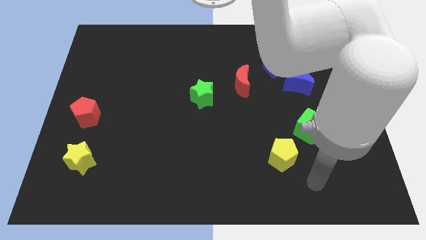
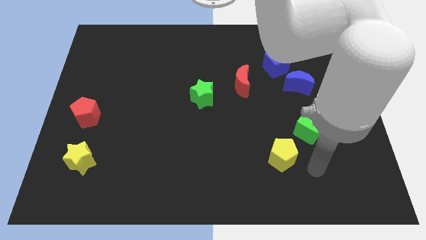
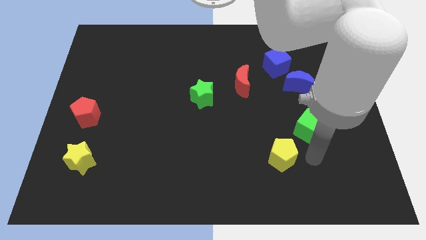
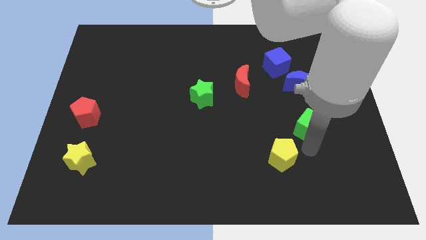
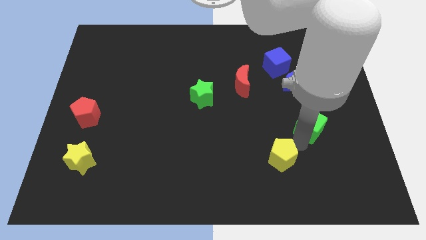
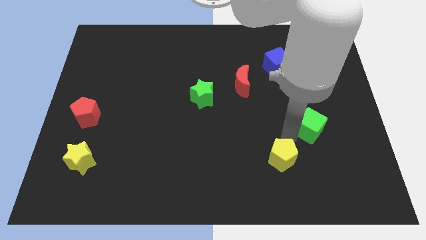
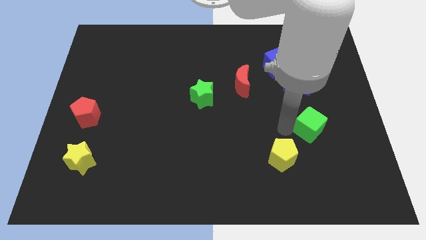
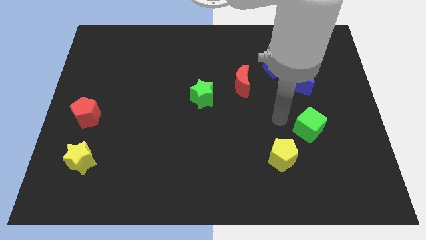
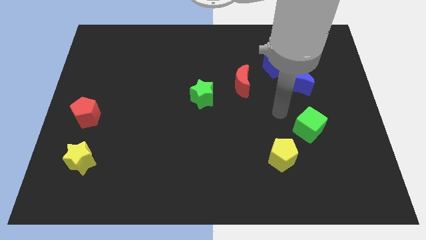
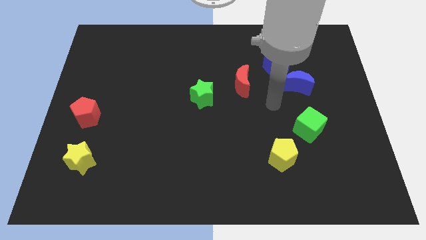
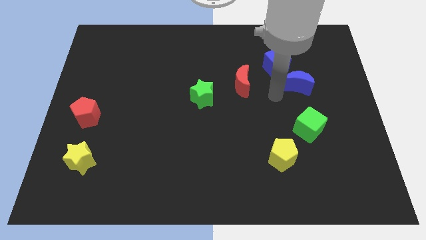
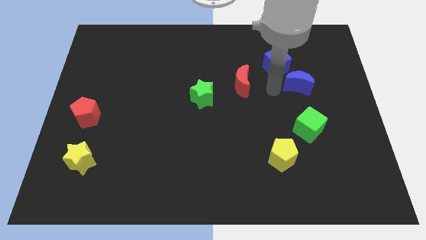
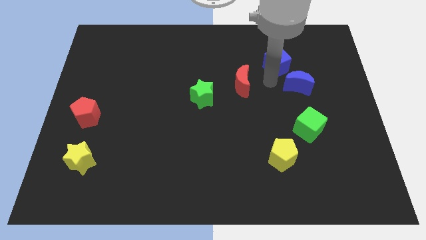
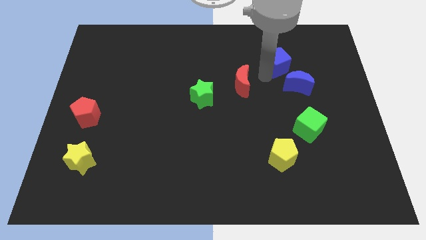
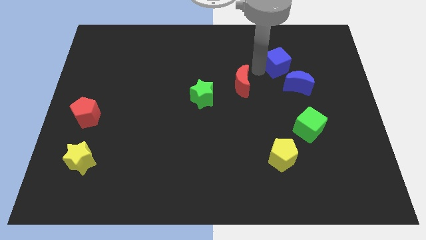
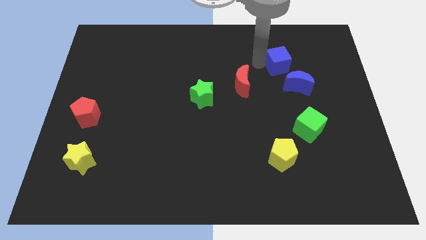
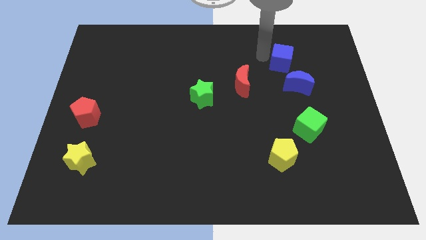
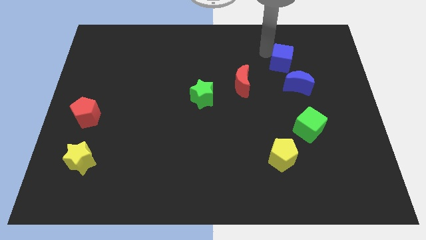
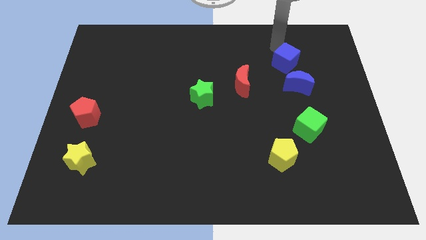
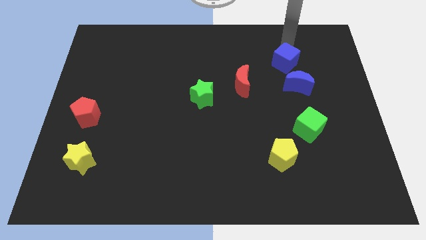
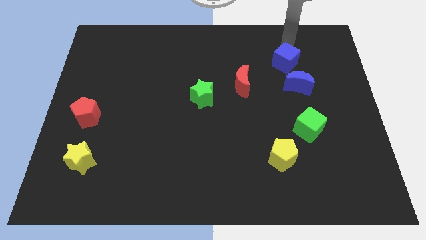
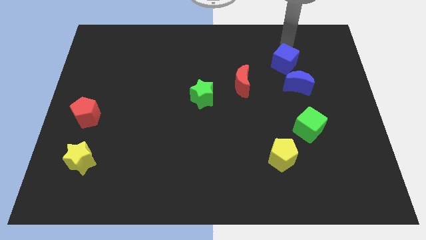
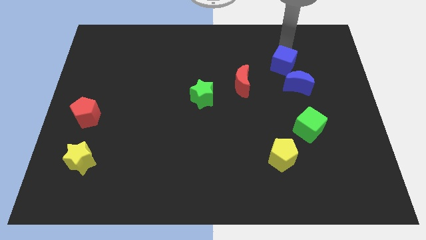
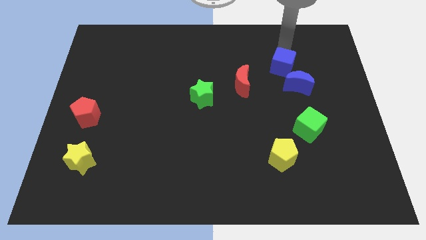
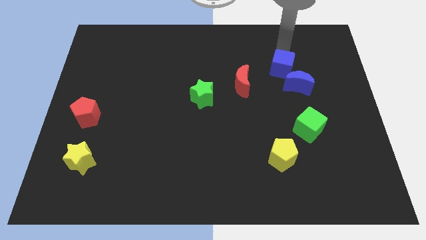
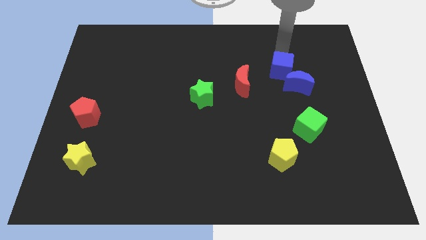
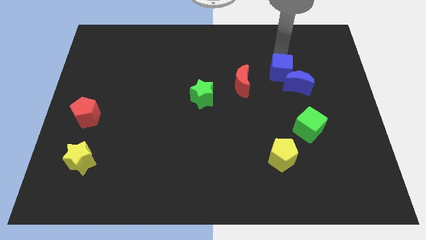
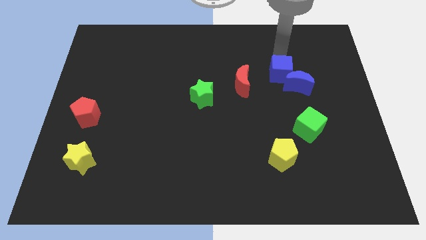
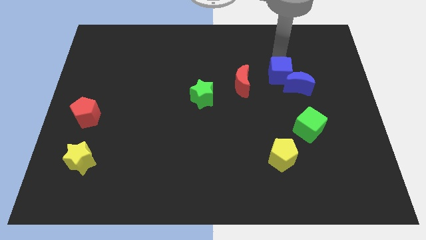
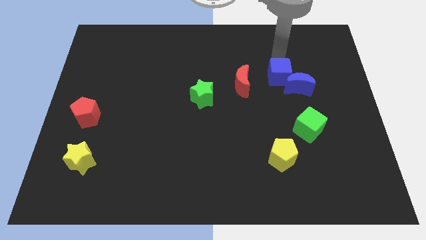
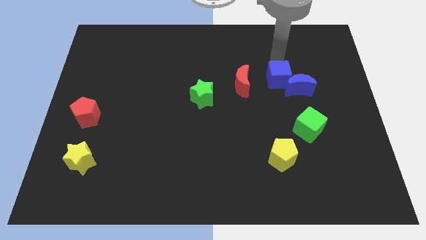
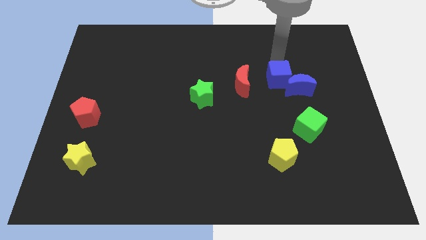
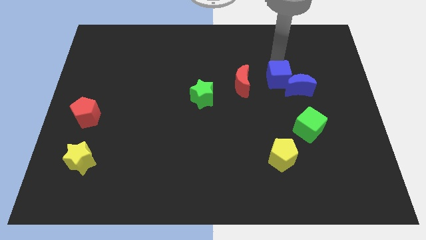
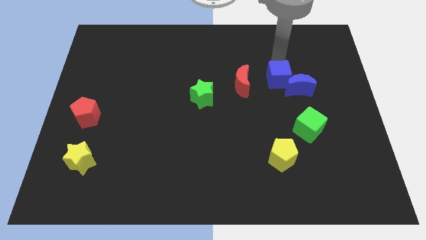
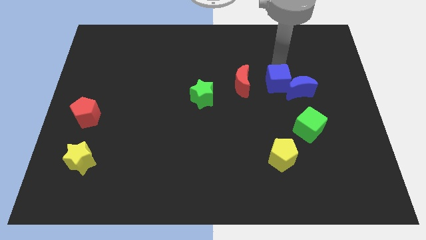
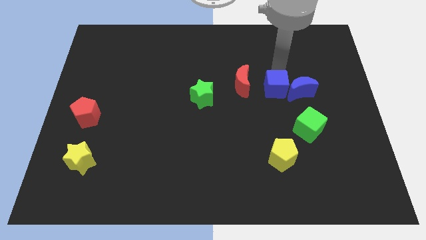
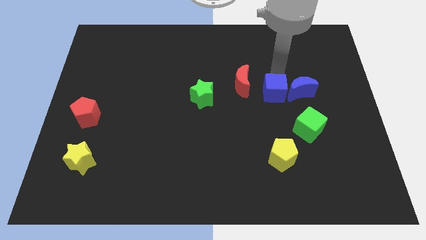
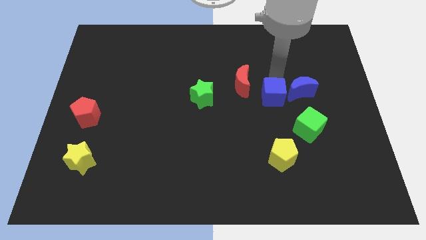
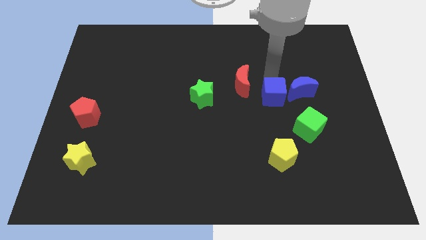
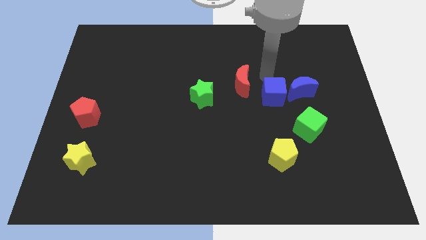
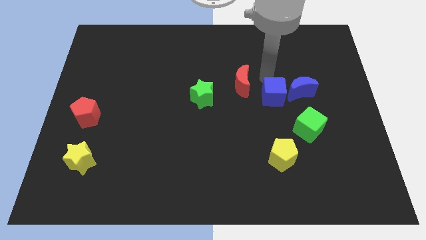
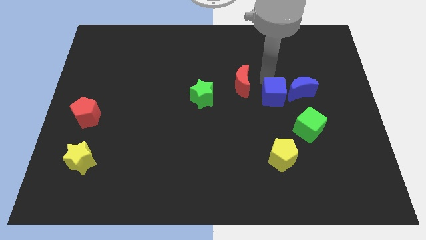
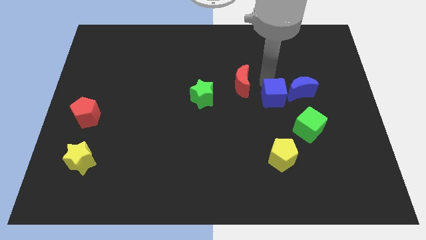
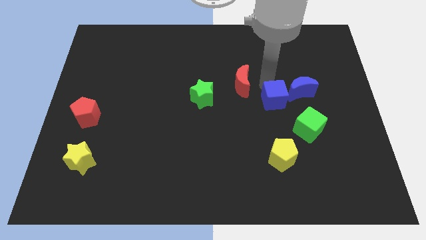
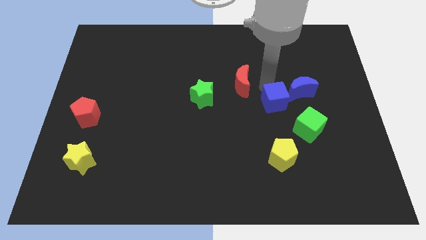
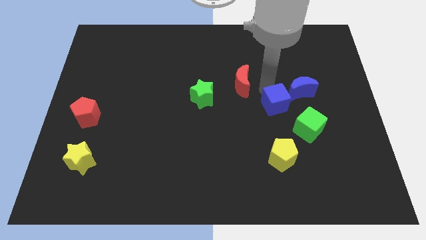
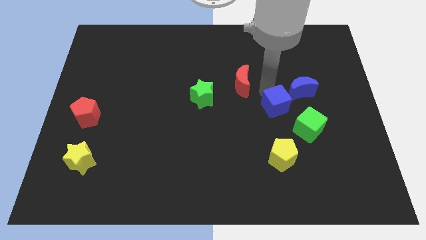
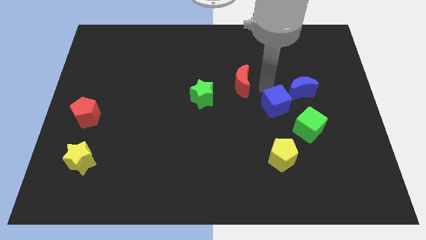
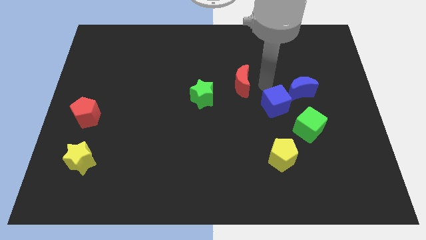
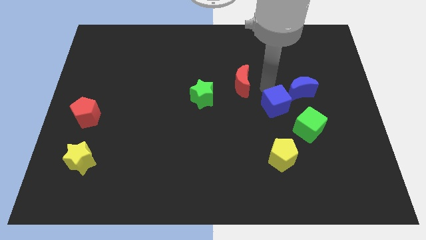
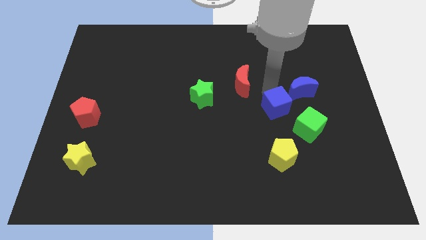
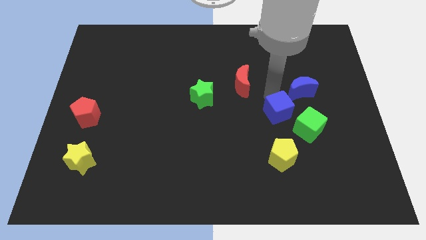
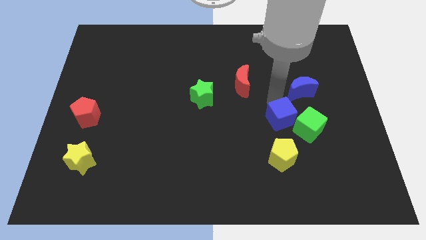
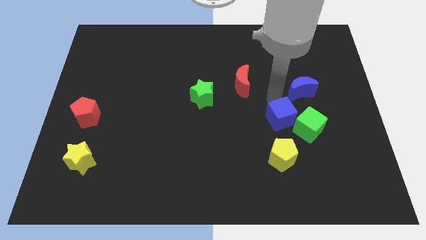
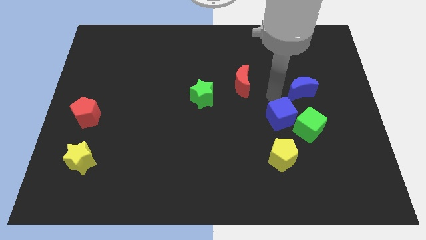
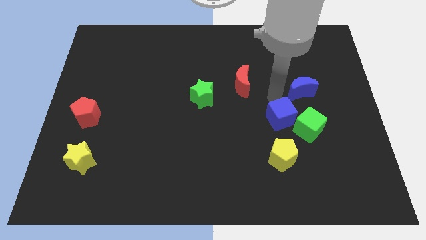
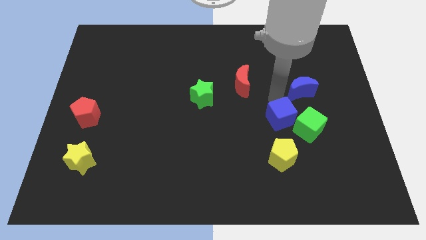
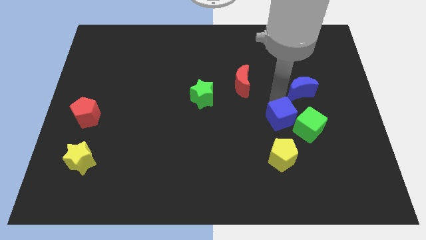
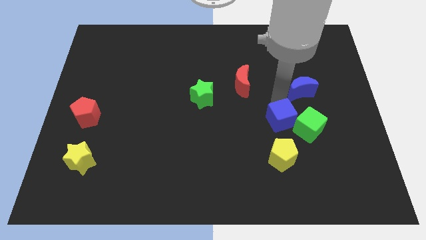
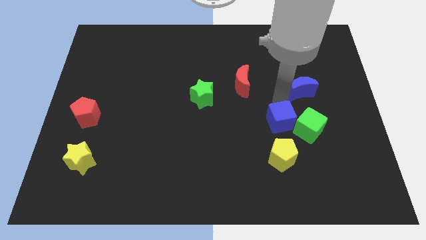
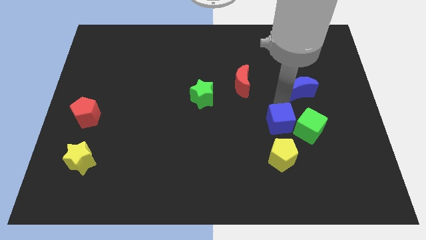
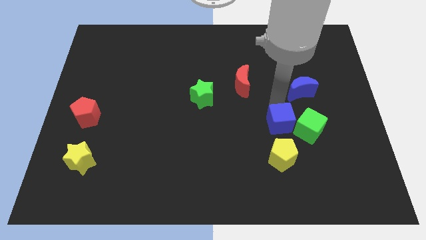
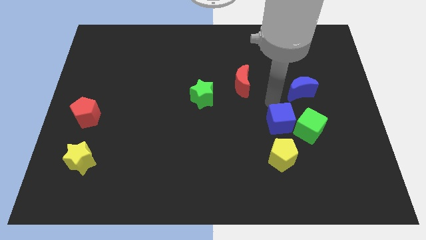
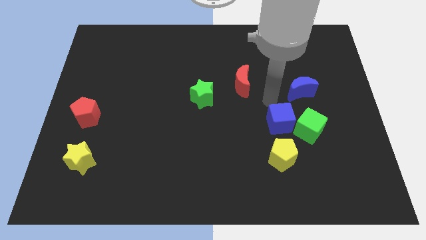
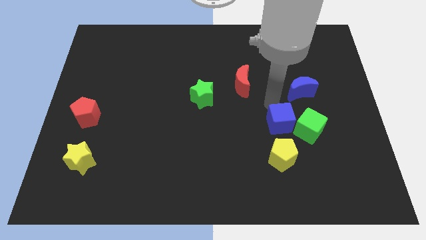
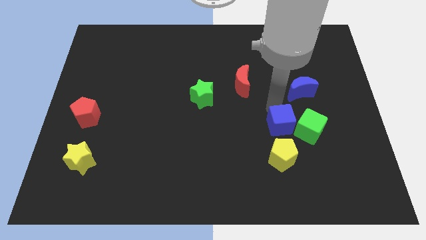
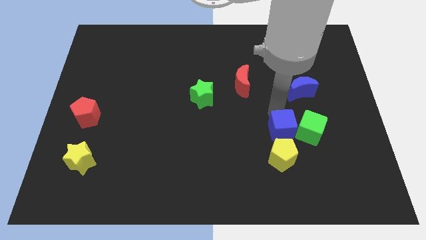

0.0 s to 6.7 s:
slide the blue cube downwards

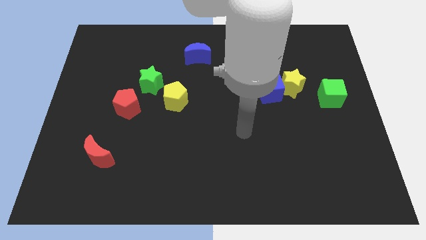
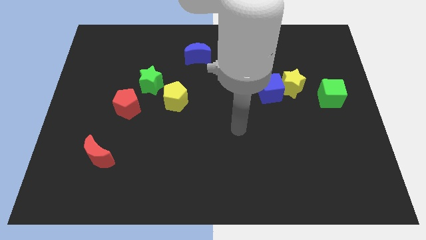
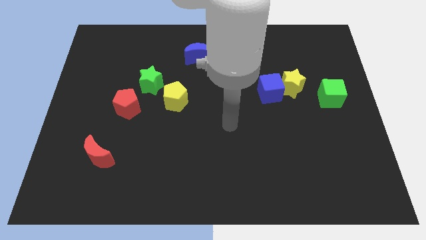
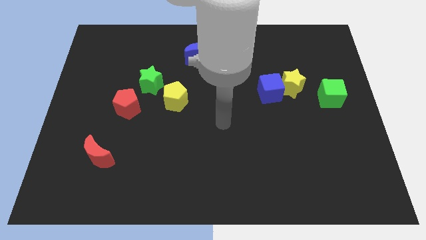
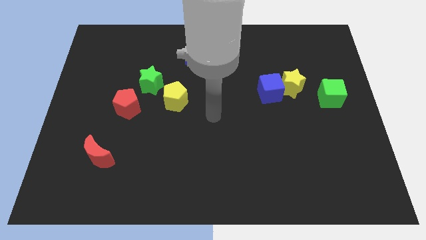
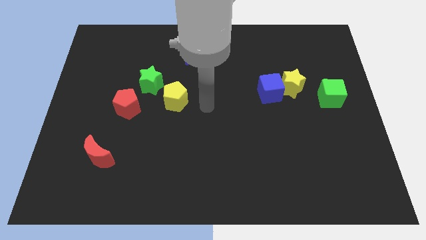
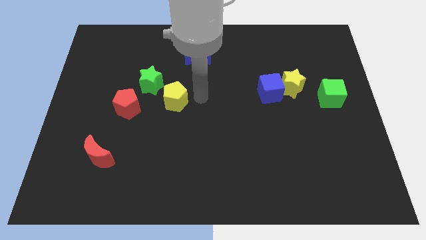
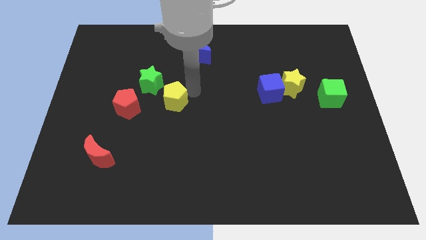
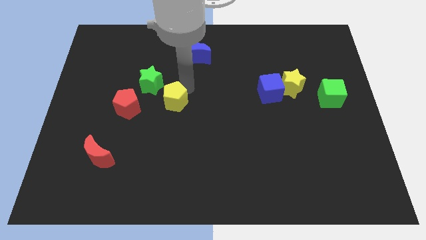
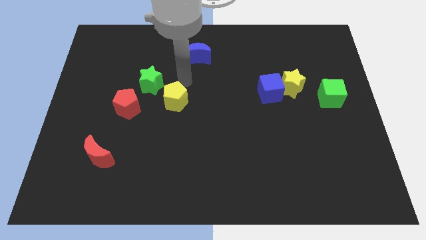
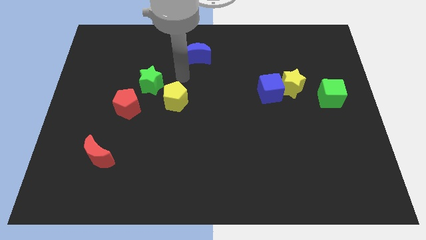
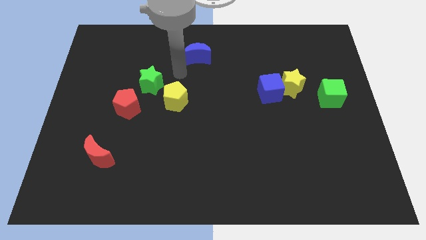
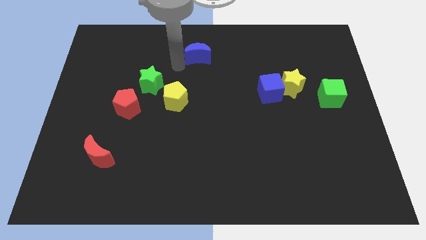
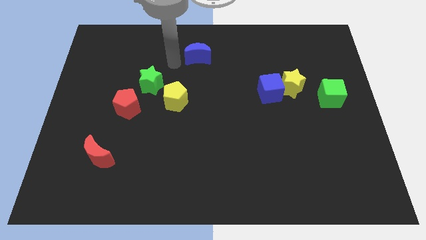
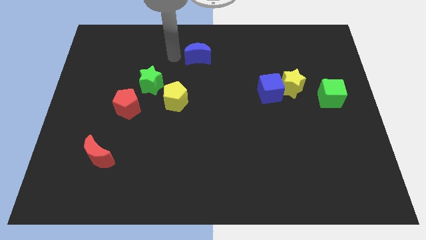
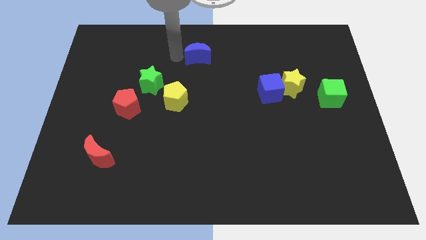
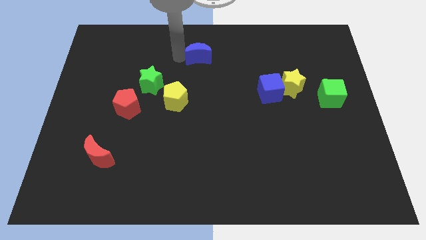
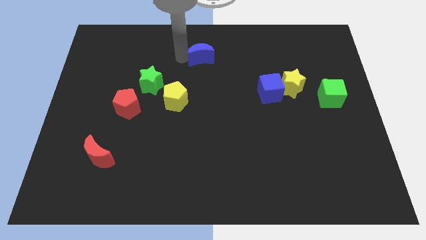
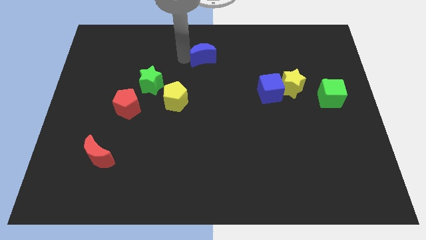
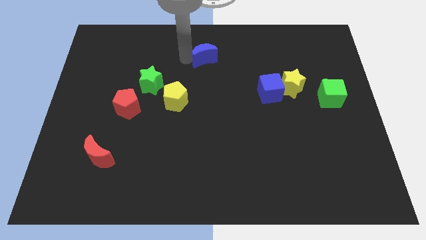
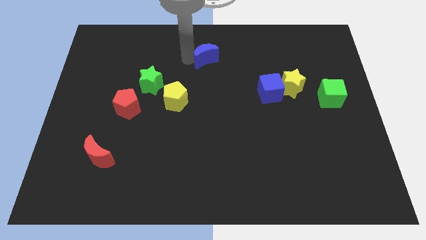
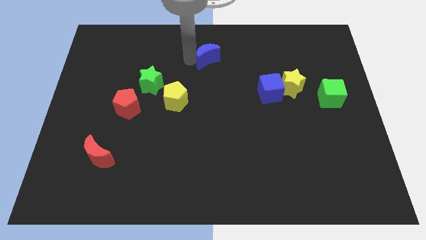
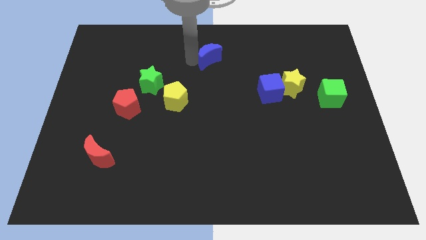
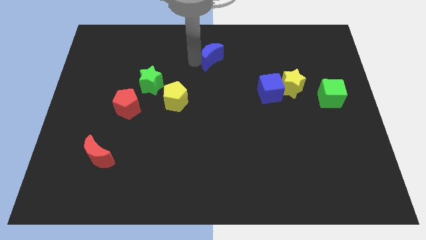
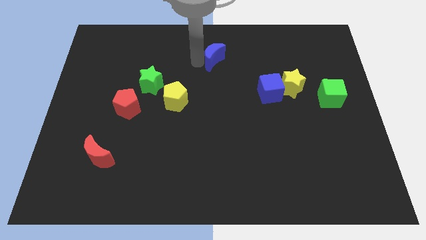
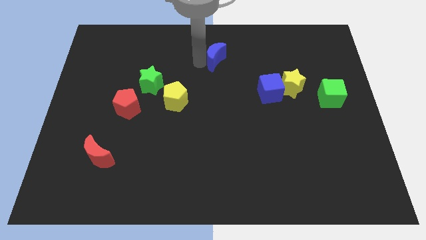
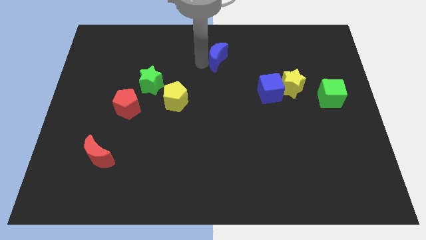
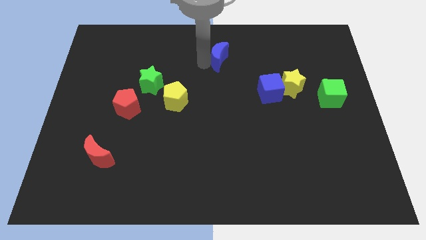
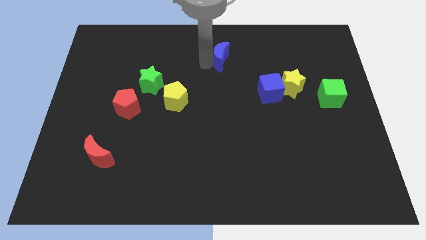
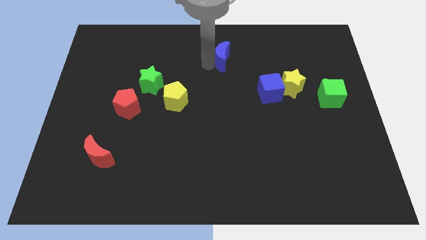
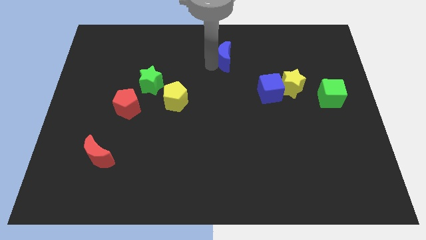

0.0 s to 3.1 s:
move the blue moon right somewhat
